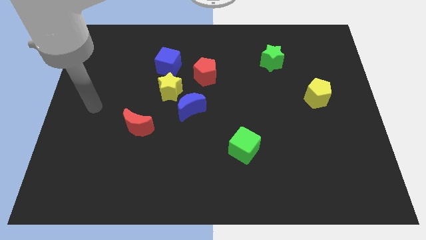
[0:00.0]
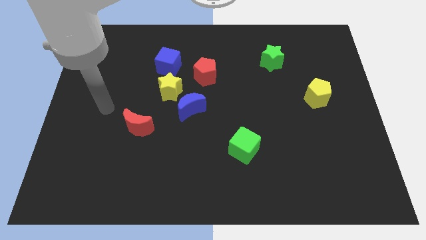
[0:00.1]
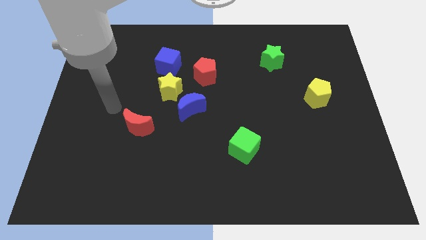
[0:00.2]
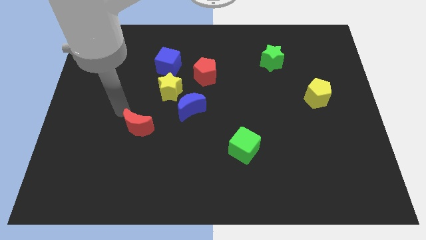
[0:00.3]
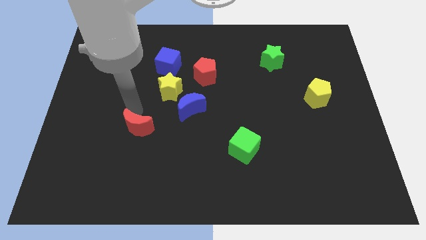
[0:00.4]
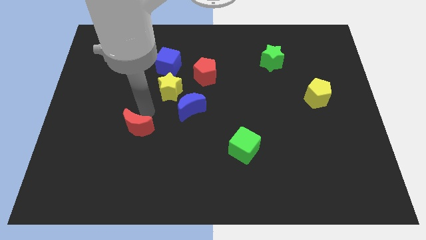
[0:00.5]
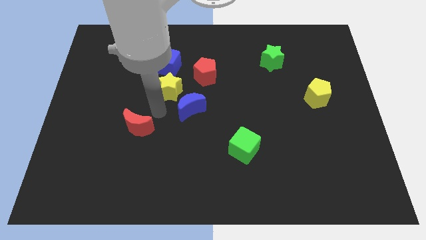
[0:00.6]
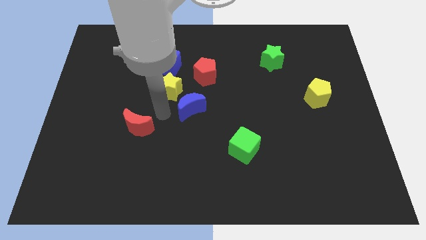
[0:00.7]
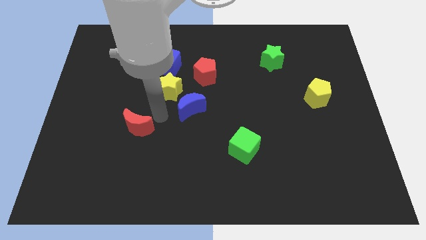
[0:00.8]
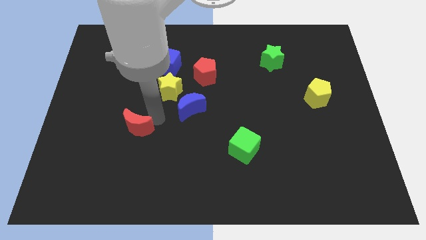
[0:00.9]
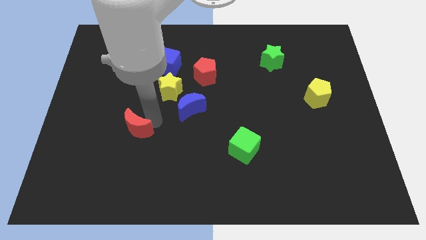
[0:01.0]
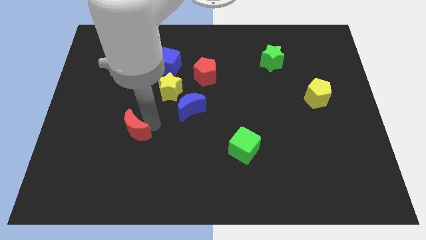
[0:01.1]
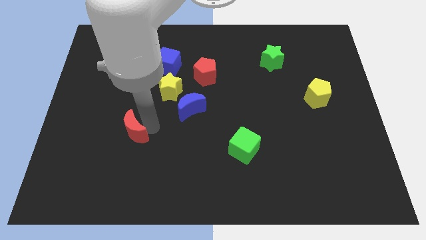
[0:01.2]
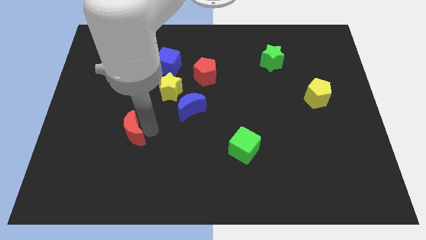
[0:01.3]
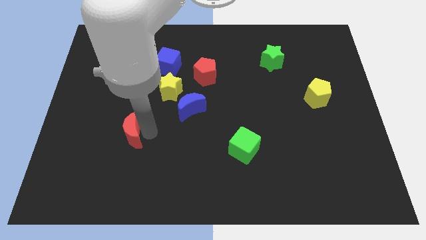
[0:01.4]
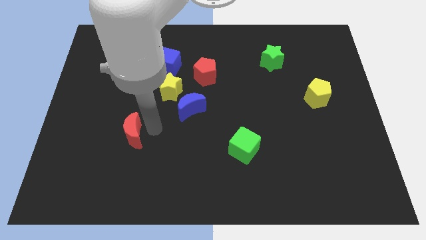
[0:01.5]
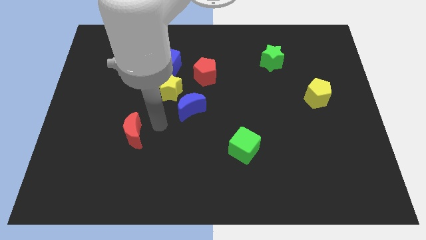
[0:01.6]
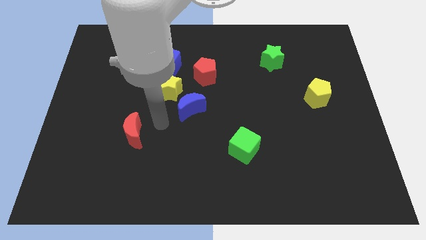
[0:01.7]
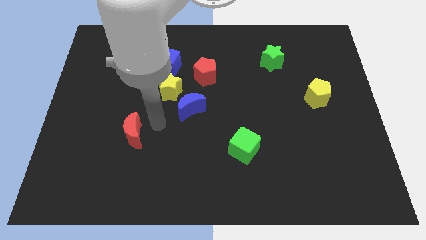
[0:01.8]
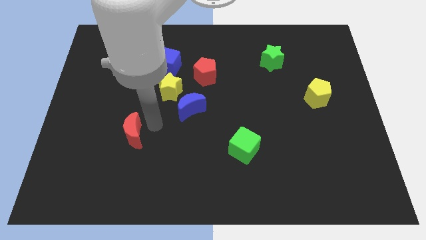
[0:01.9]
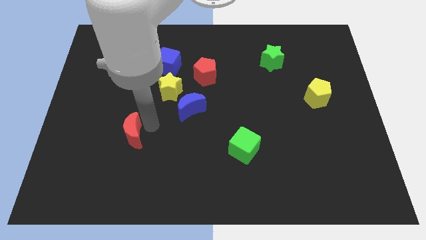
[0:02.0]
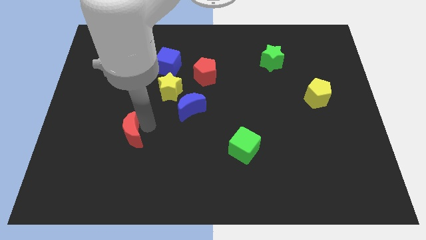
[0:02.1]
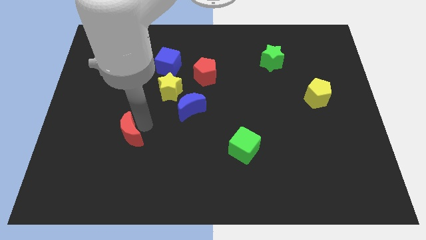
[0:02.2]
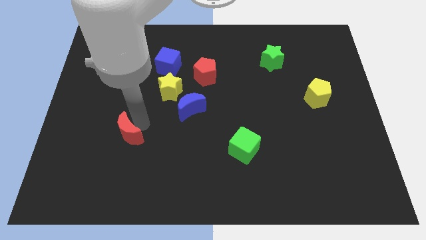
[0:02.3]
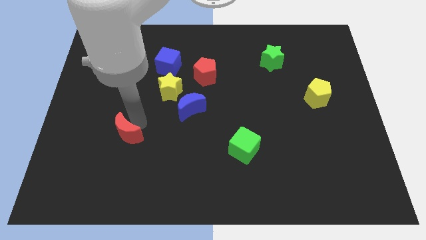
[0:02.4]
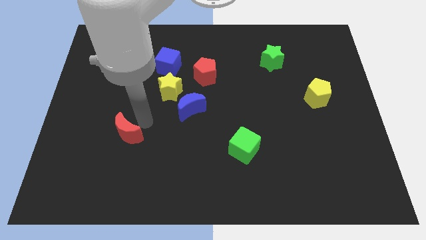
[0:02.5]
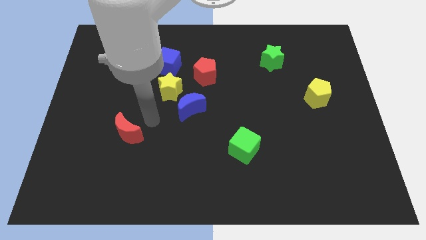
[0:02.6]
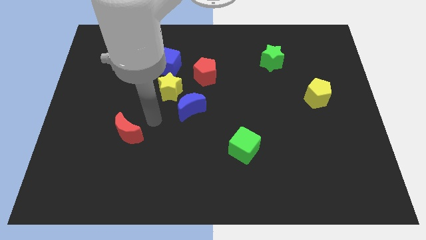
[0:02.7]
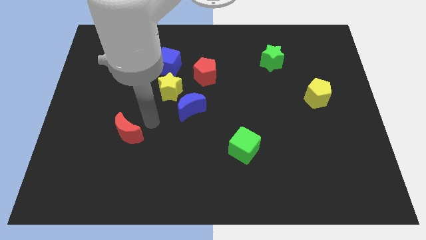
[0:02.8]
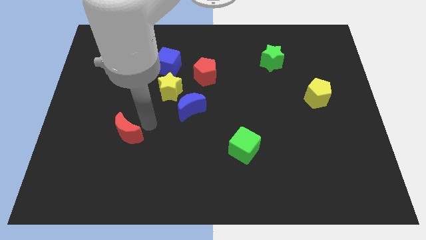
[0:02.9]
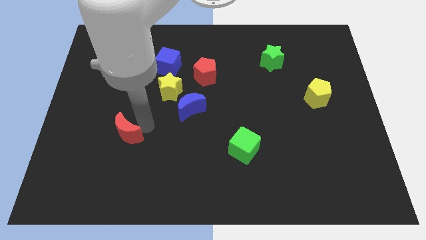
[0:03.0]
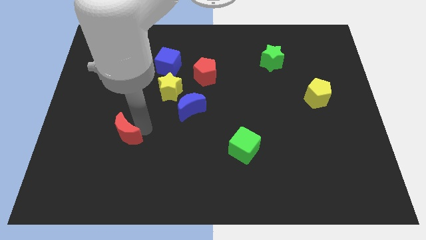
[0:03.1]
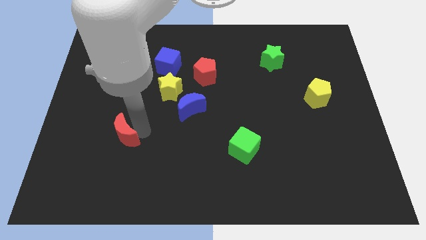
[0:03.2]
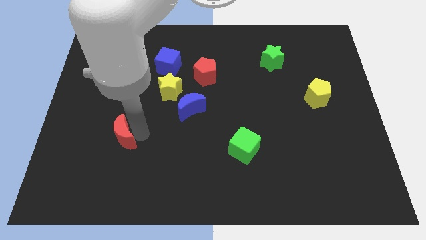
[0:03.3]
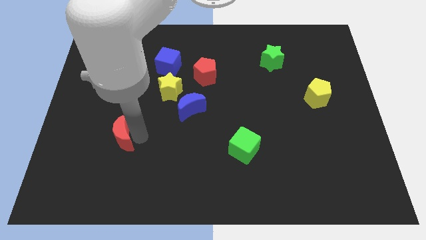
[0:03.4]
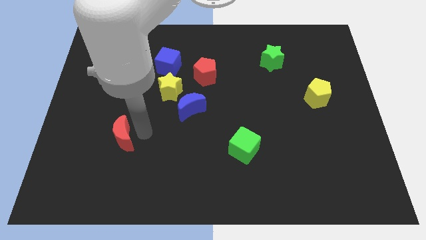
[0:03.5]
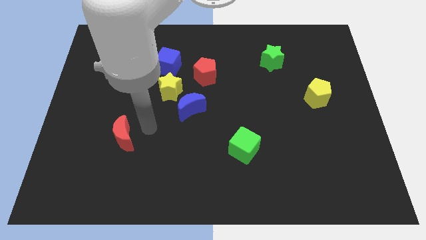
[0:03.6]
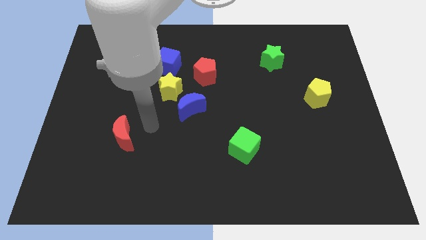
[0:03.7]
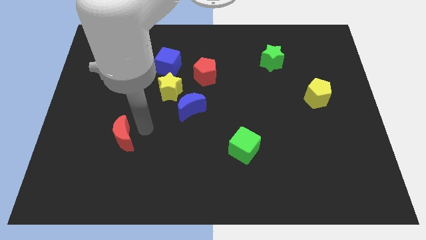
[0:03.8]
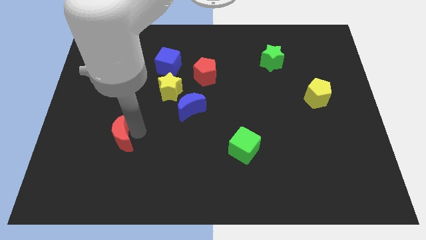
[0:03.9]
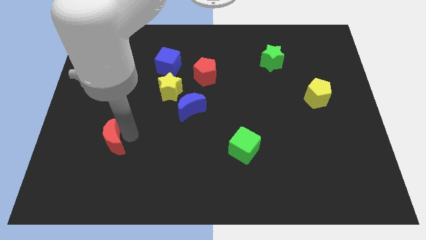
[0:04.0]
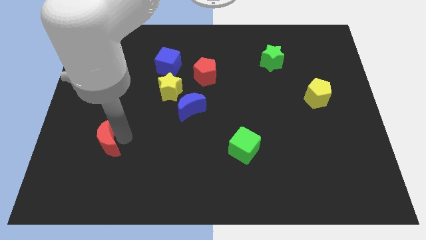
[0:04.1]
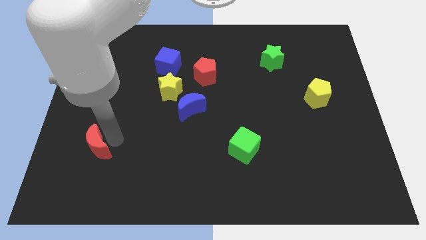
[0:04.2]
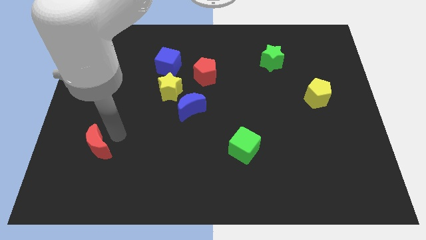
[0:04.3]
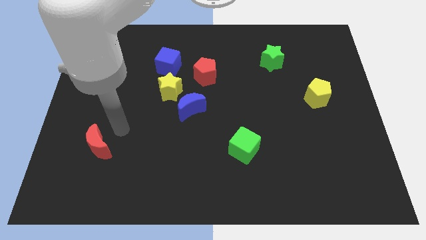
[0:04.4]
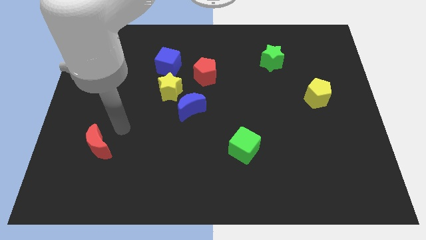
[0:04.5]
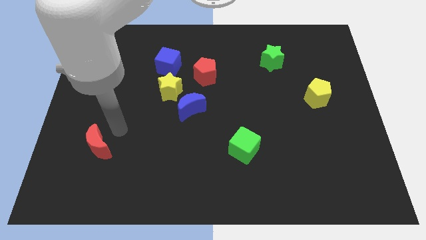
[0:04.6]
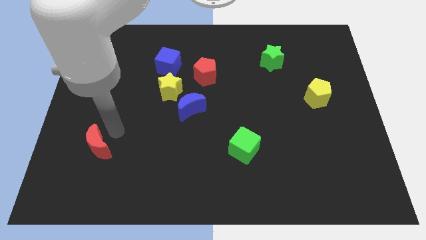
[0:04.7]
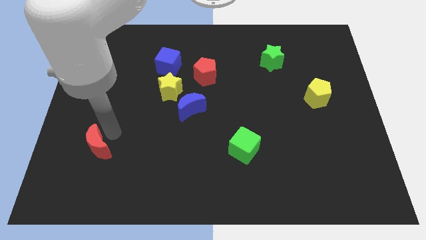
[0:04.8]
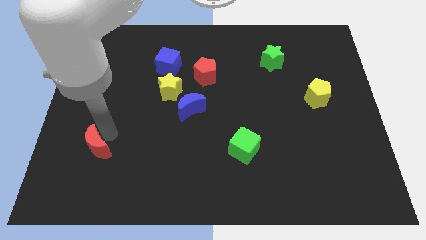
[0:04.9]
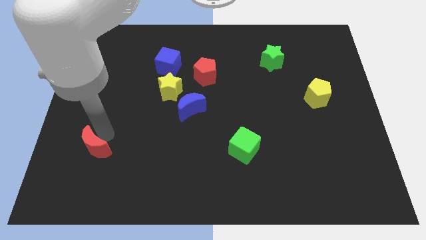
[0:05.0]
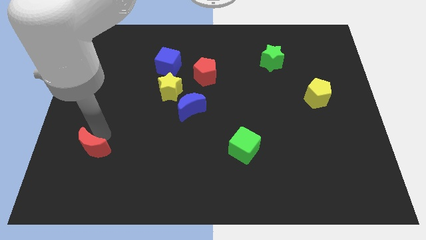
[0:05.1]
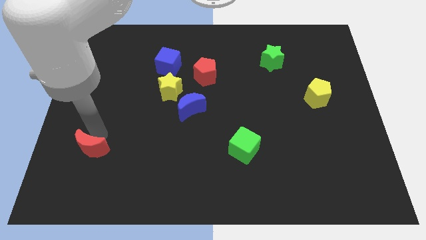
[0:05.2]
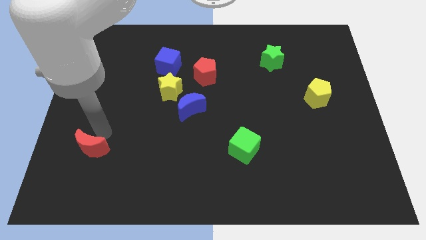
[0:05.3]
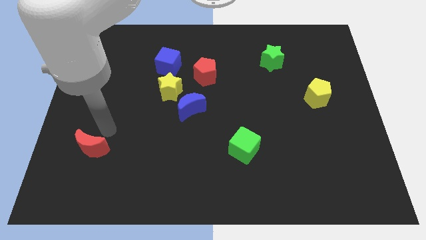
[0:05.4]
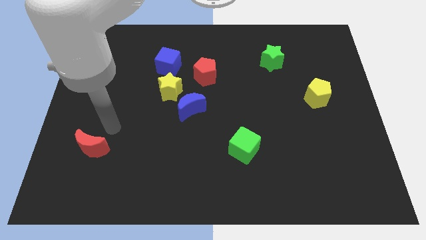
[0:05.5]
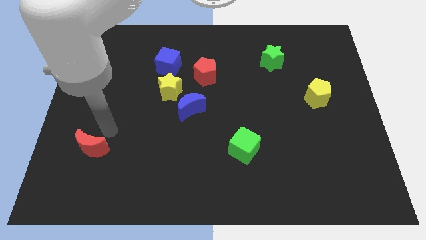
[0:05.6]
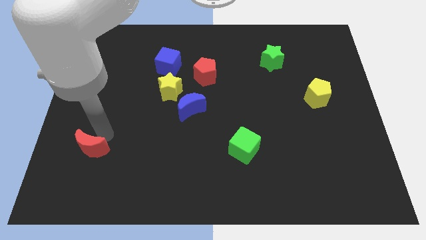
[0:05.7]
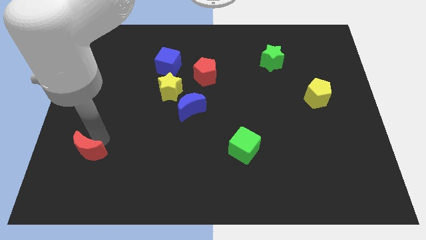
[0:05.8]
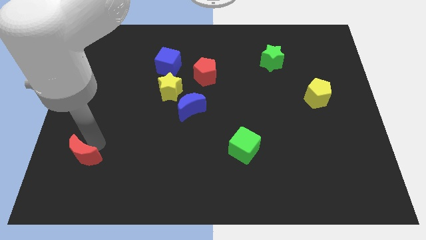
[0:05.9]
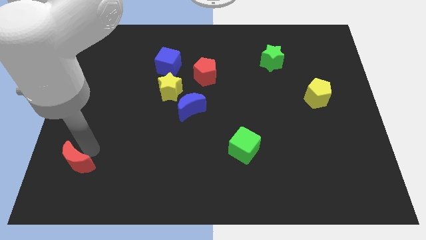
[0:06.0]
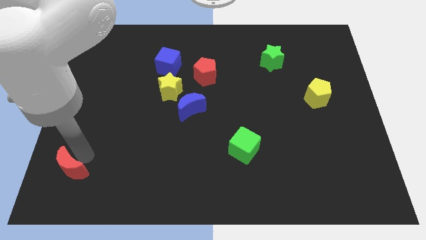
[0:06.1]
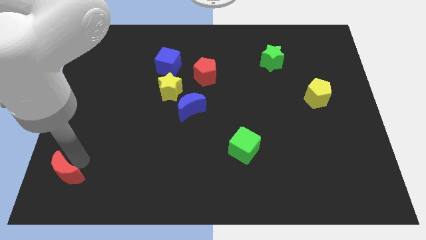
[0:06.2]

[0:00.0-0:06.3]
move the red moon to the bottom left
